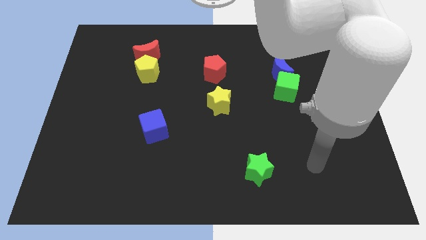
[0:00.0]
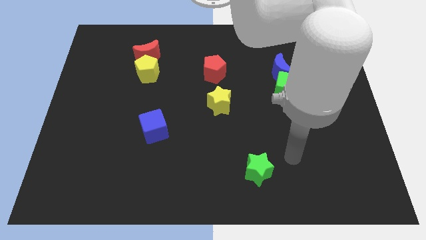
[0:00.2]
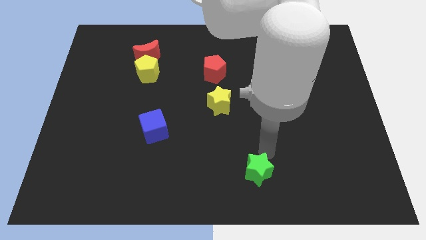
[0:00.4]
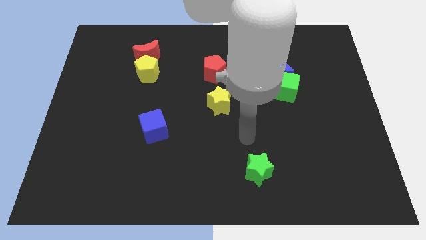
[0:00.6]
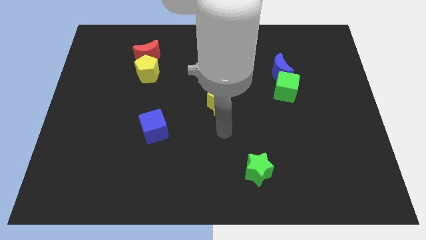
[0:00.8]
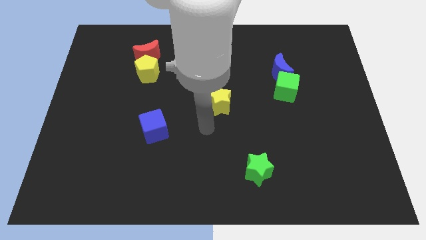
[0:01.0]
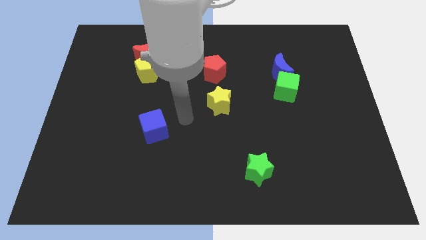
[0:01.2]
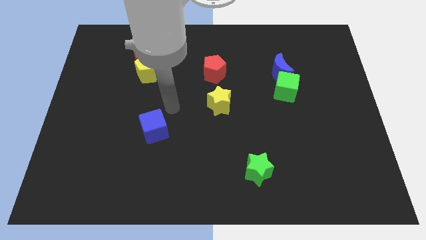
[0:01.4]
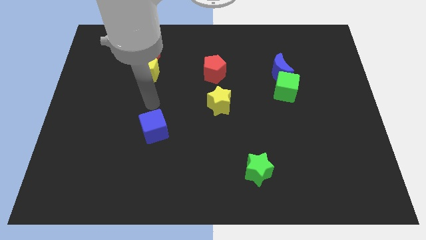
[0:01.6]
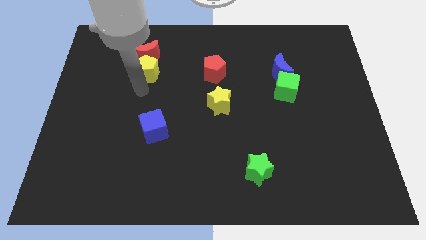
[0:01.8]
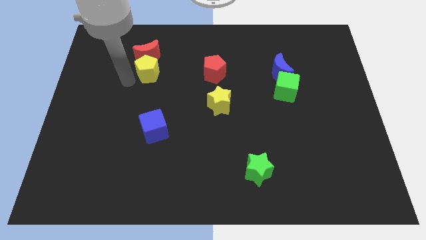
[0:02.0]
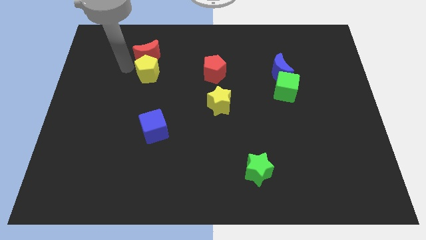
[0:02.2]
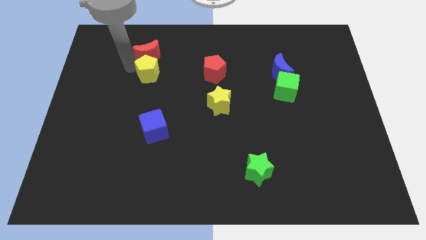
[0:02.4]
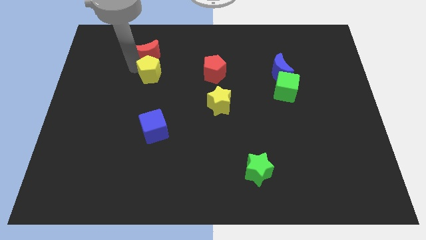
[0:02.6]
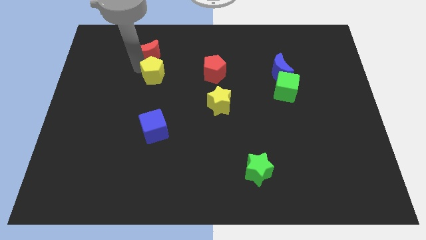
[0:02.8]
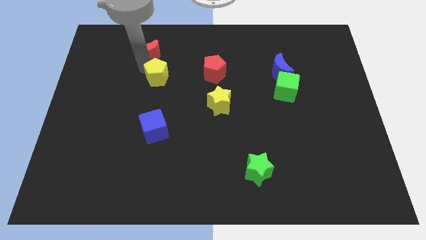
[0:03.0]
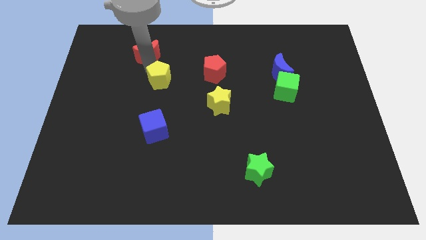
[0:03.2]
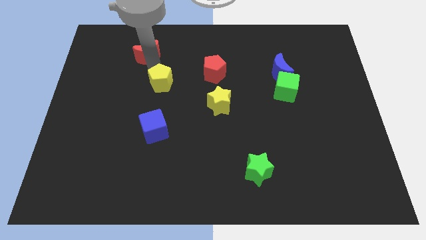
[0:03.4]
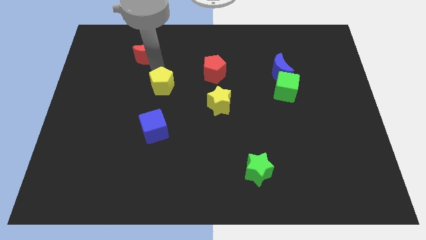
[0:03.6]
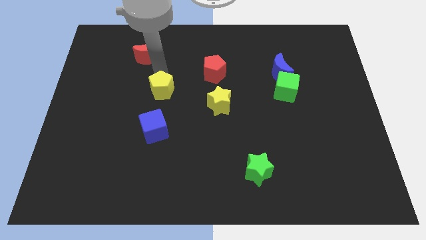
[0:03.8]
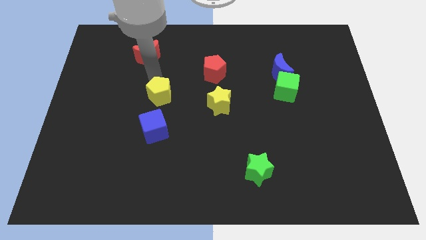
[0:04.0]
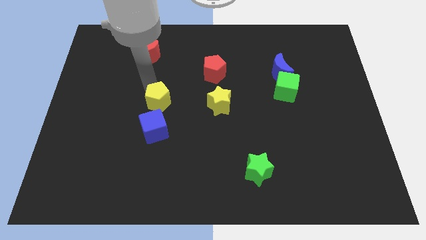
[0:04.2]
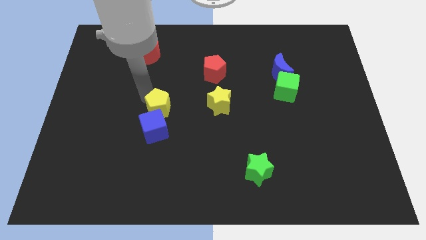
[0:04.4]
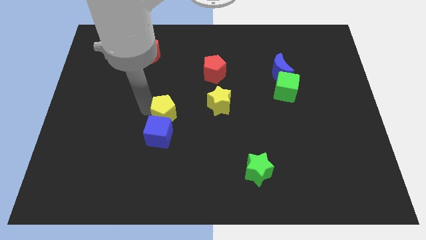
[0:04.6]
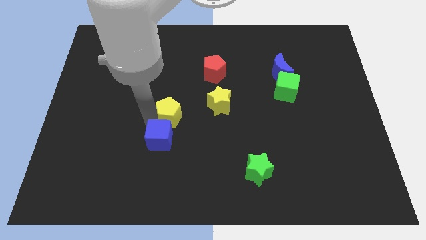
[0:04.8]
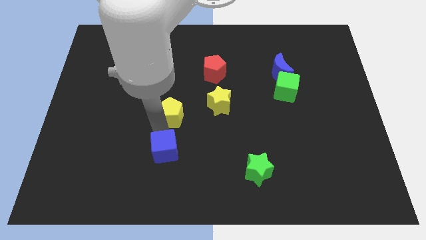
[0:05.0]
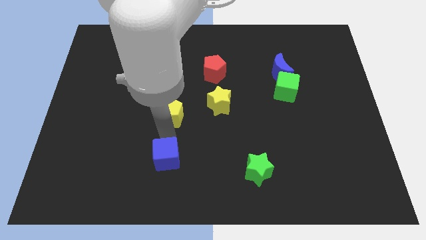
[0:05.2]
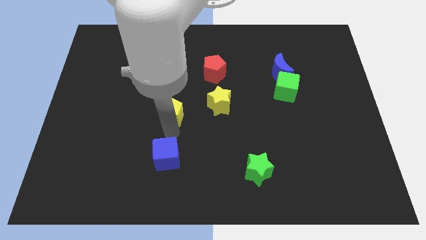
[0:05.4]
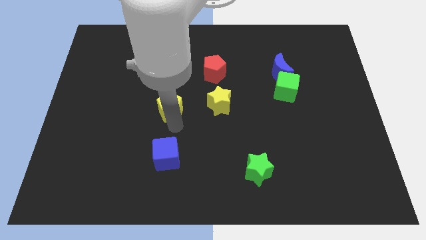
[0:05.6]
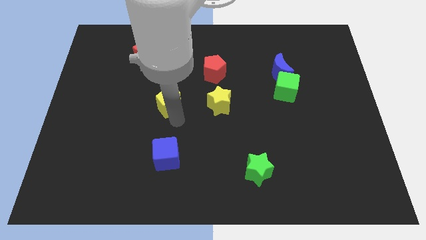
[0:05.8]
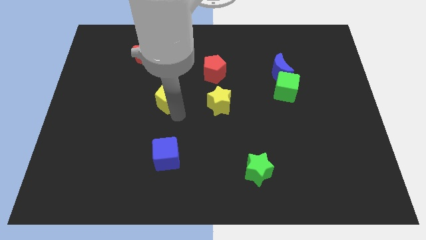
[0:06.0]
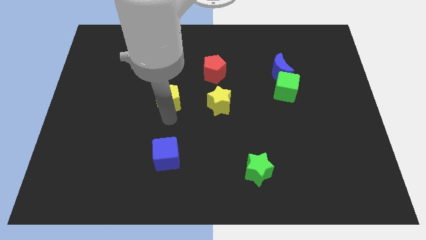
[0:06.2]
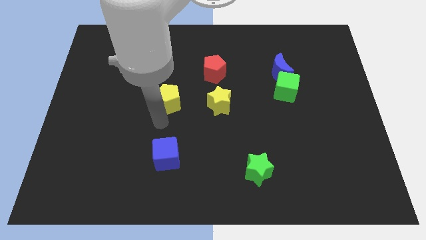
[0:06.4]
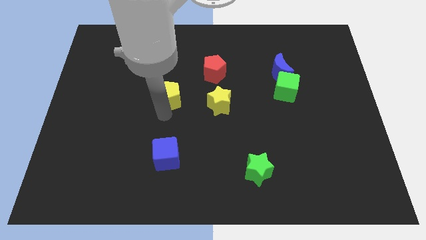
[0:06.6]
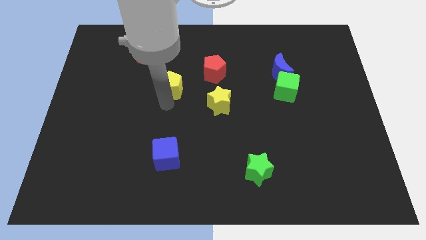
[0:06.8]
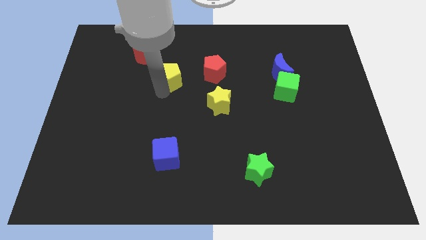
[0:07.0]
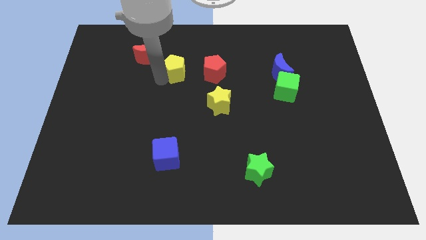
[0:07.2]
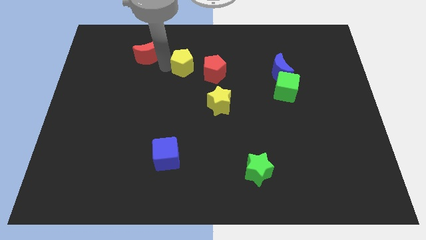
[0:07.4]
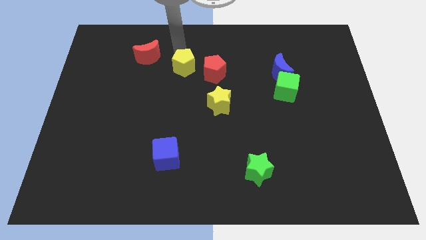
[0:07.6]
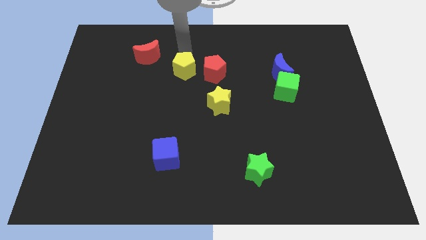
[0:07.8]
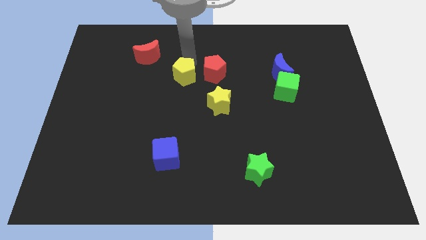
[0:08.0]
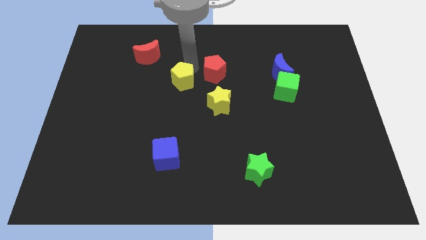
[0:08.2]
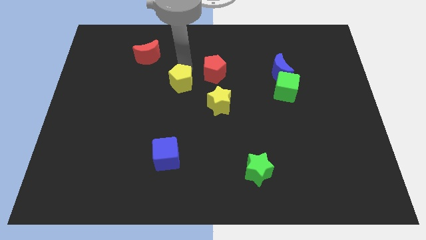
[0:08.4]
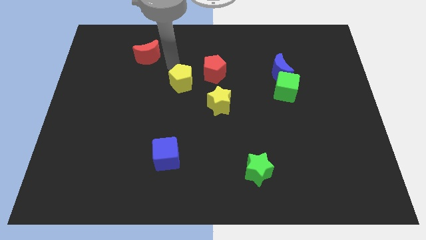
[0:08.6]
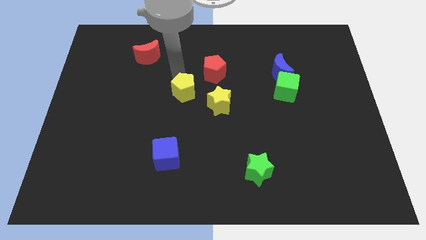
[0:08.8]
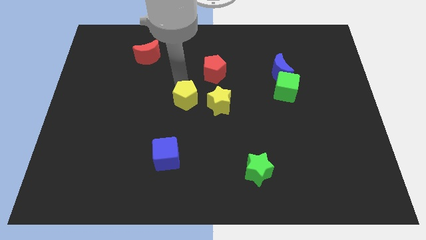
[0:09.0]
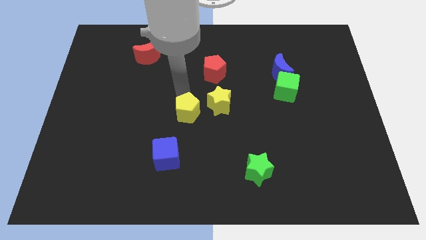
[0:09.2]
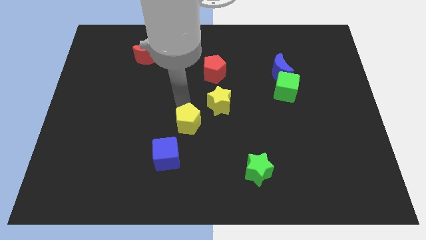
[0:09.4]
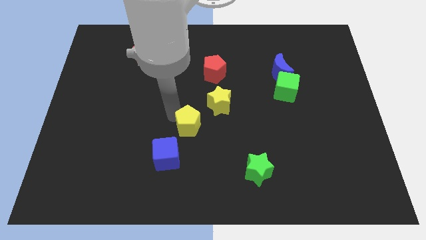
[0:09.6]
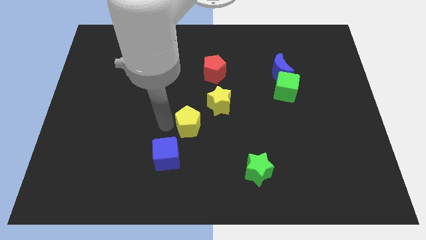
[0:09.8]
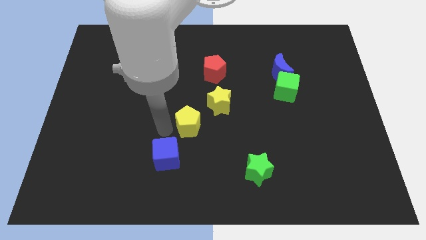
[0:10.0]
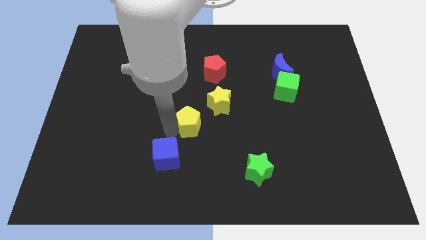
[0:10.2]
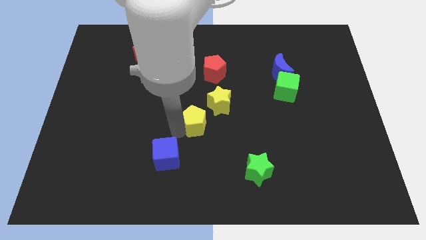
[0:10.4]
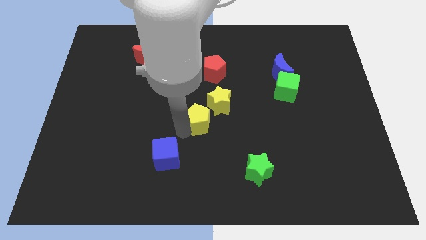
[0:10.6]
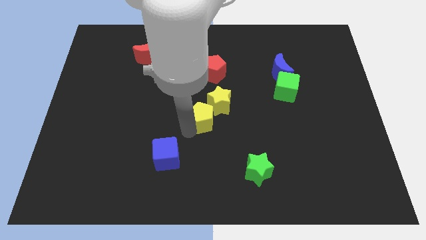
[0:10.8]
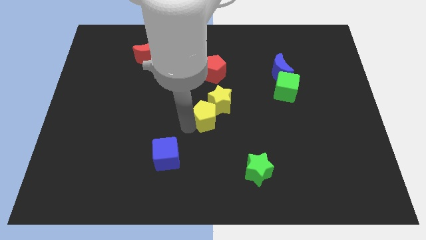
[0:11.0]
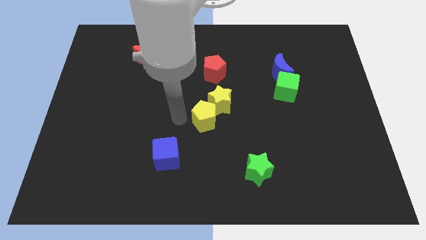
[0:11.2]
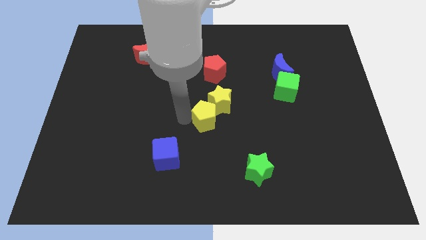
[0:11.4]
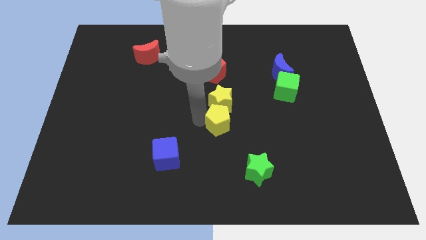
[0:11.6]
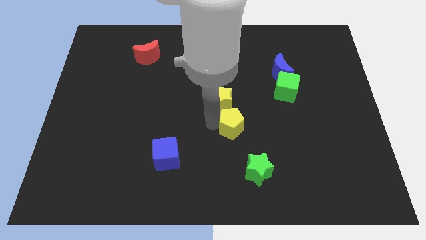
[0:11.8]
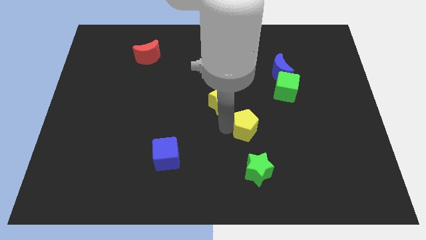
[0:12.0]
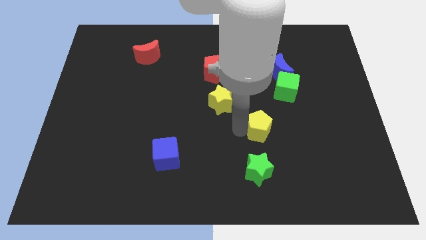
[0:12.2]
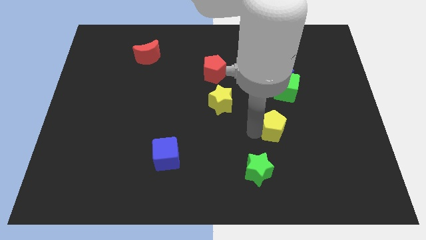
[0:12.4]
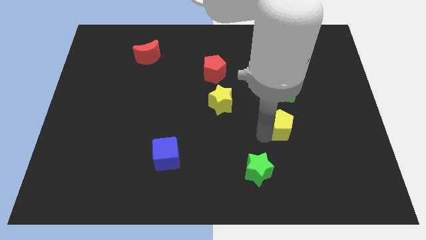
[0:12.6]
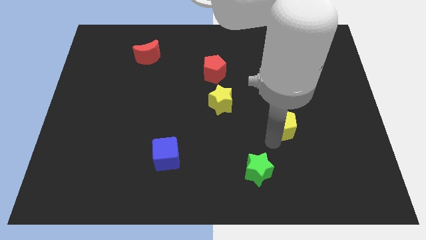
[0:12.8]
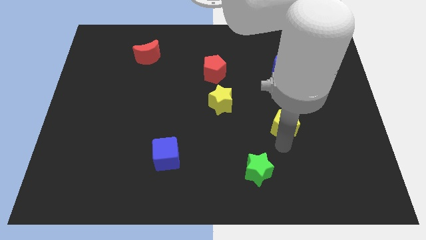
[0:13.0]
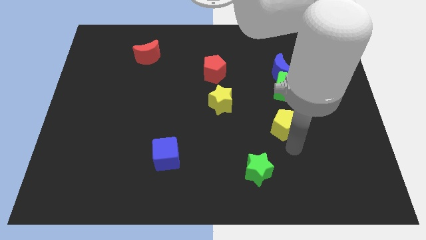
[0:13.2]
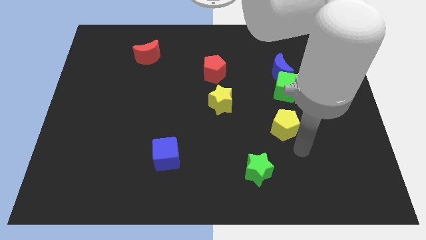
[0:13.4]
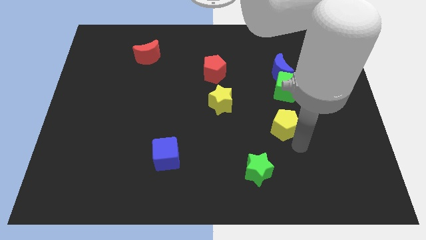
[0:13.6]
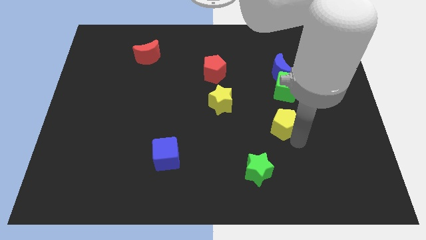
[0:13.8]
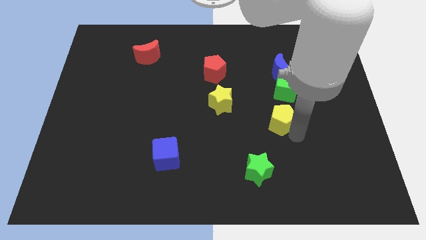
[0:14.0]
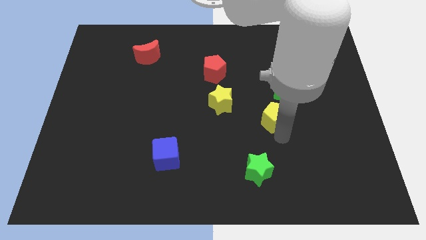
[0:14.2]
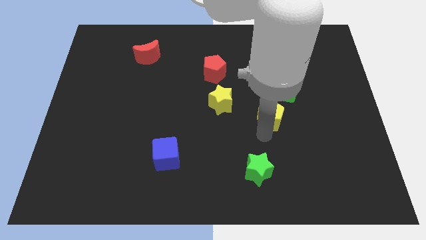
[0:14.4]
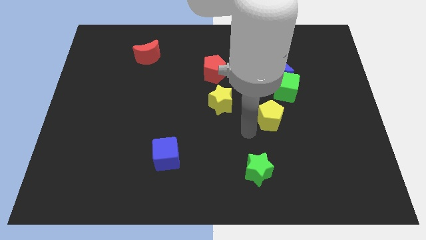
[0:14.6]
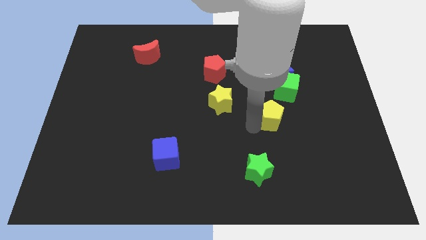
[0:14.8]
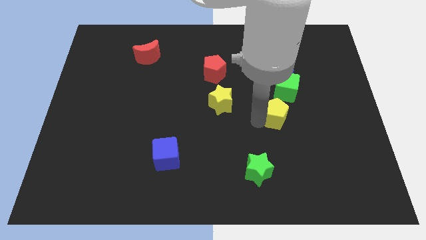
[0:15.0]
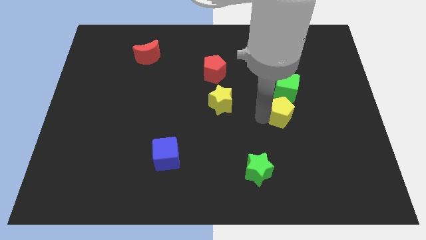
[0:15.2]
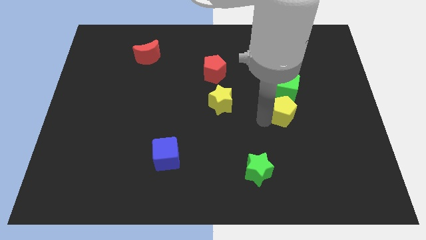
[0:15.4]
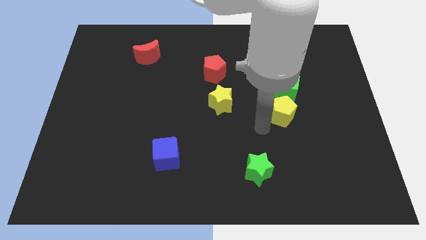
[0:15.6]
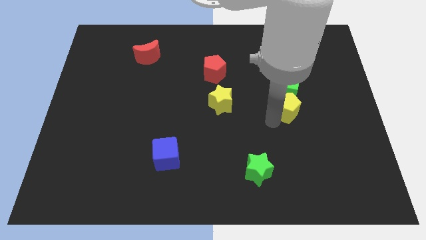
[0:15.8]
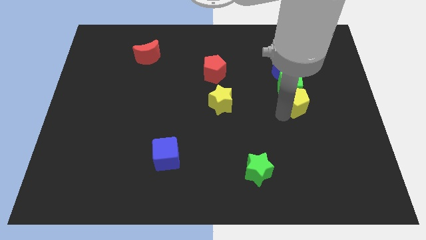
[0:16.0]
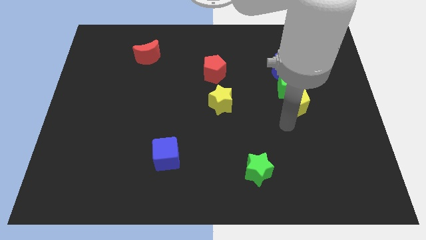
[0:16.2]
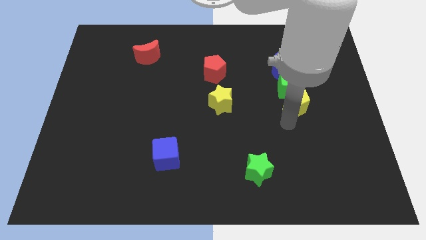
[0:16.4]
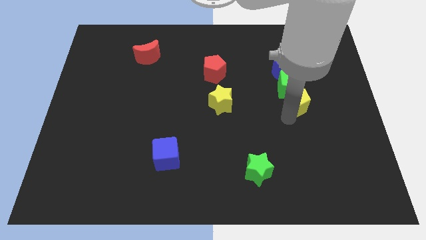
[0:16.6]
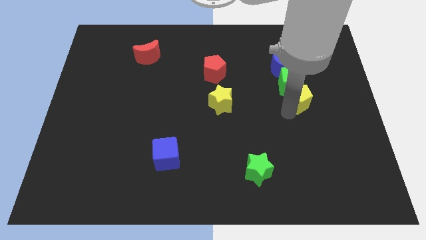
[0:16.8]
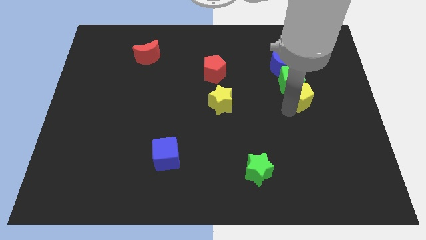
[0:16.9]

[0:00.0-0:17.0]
slide the yellow pentagon to the bottom right side of the blue moon
